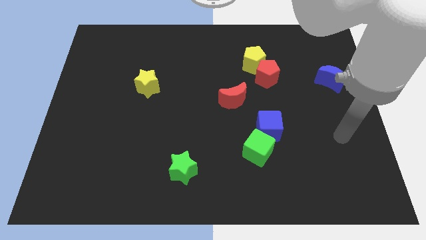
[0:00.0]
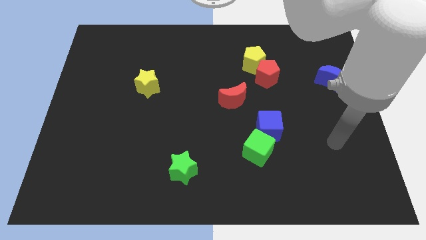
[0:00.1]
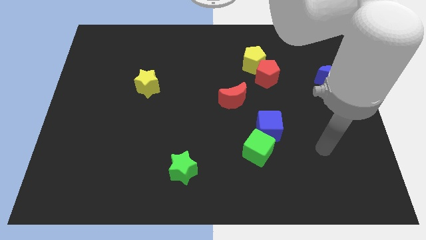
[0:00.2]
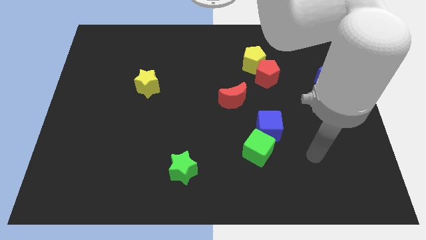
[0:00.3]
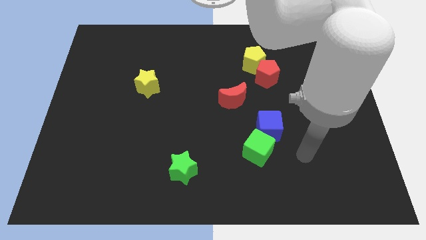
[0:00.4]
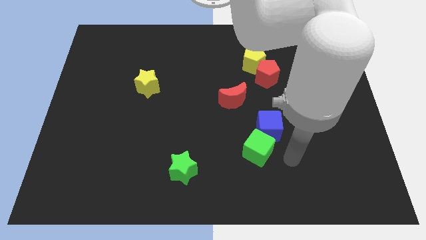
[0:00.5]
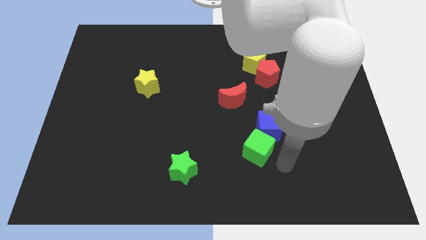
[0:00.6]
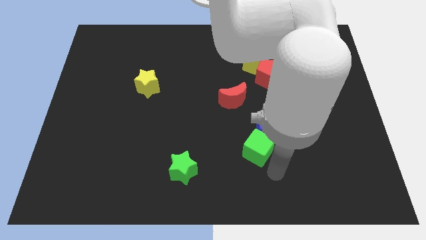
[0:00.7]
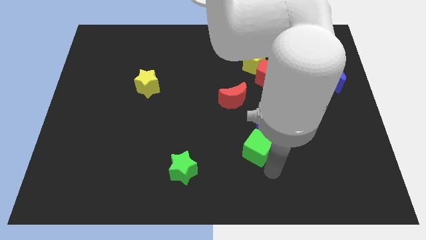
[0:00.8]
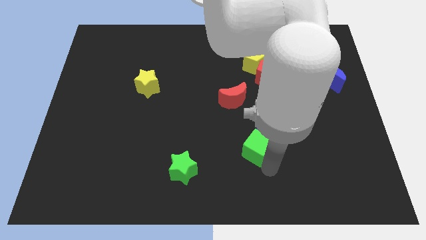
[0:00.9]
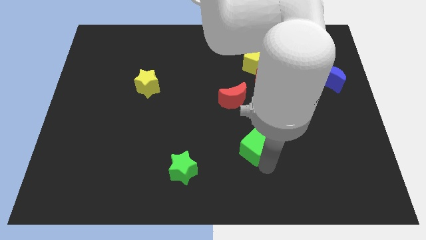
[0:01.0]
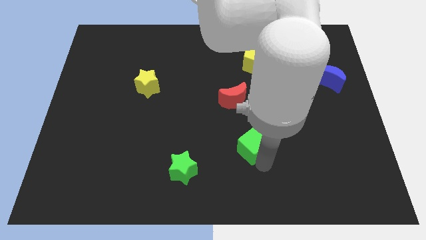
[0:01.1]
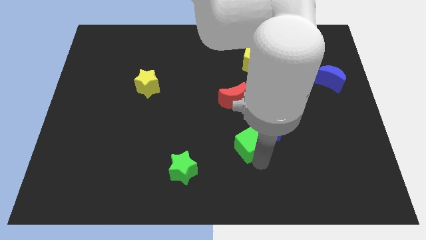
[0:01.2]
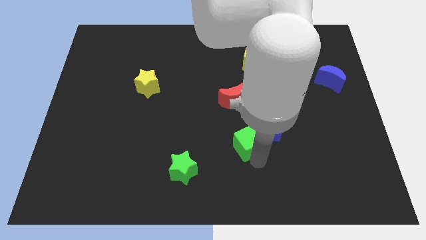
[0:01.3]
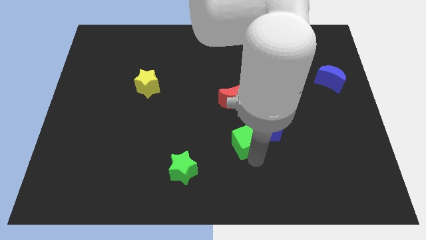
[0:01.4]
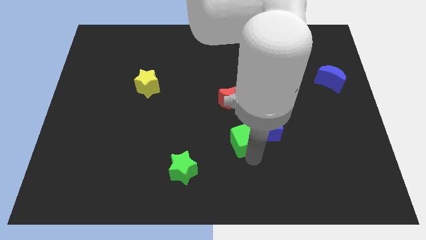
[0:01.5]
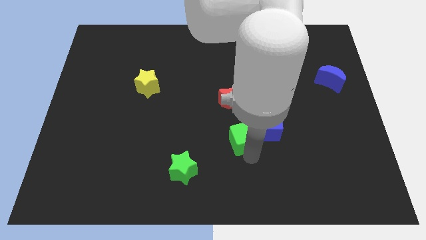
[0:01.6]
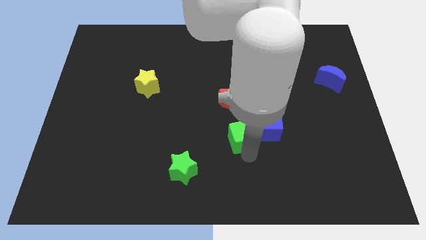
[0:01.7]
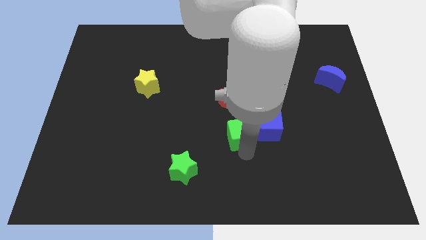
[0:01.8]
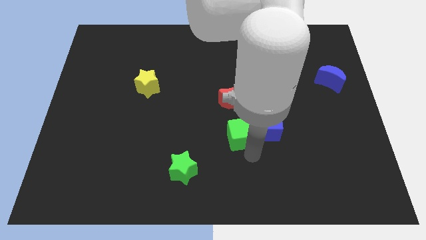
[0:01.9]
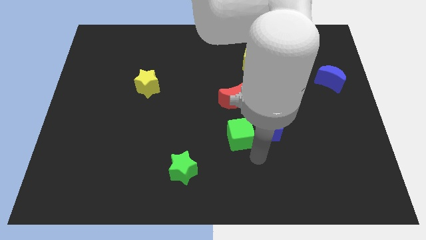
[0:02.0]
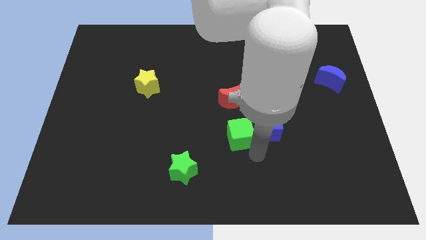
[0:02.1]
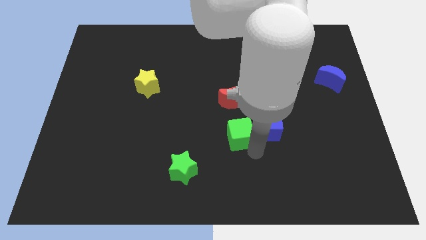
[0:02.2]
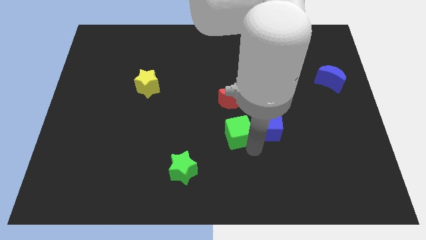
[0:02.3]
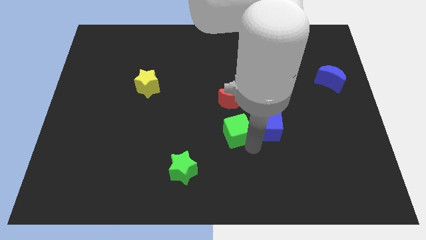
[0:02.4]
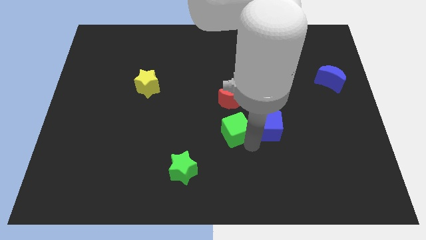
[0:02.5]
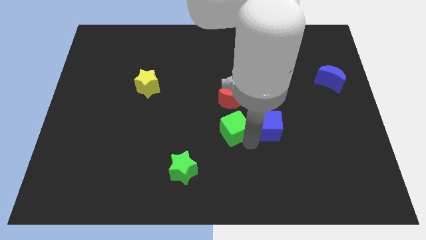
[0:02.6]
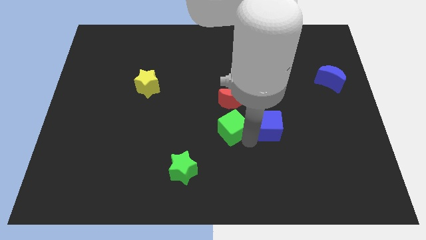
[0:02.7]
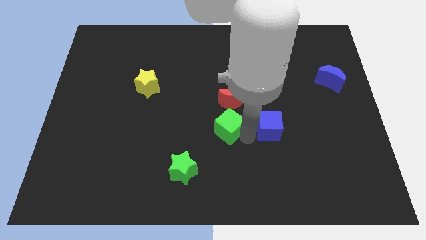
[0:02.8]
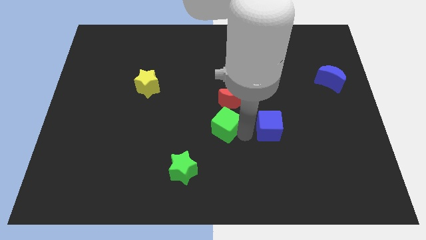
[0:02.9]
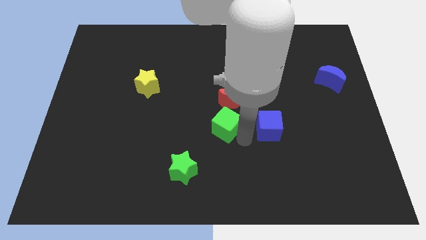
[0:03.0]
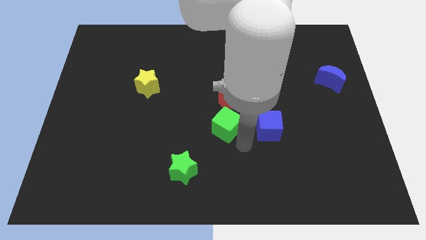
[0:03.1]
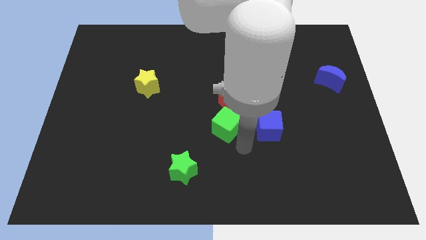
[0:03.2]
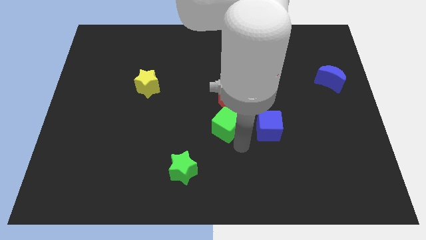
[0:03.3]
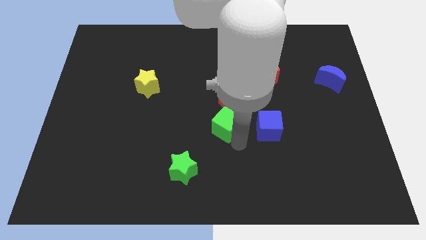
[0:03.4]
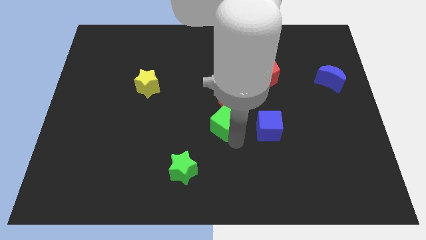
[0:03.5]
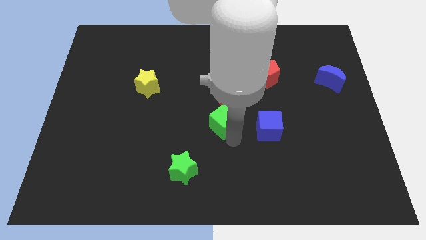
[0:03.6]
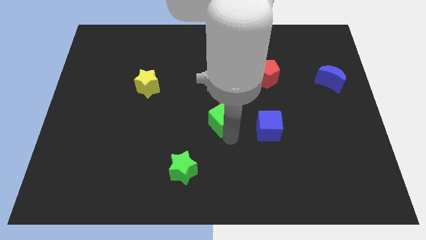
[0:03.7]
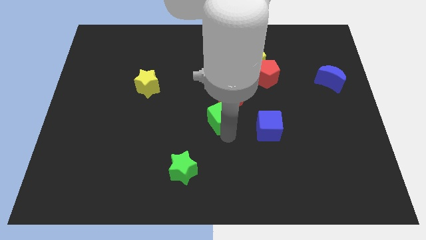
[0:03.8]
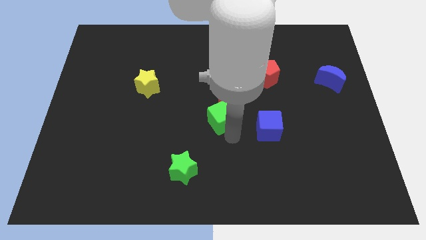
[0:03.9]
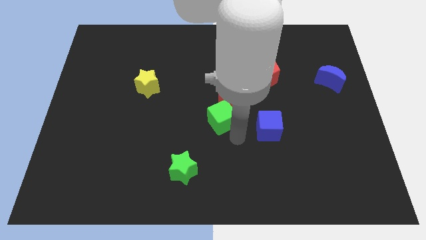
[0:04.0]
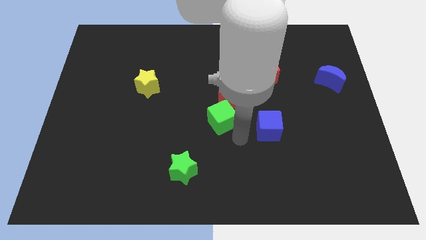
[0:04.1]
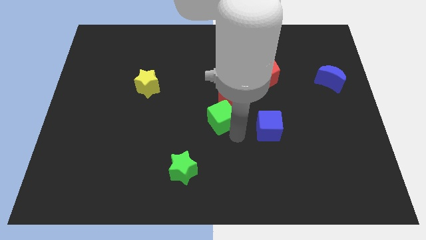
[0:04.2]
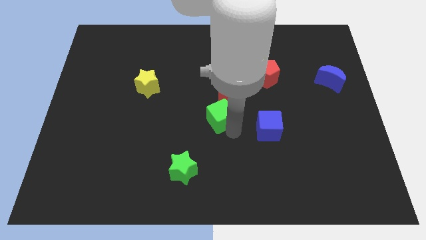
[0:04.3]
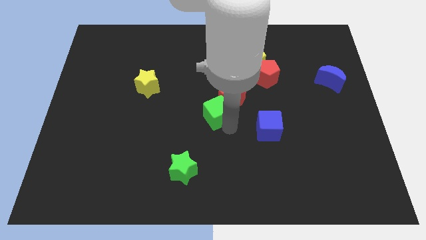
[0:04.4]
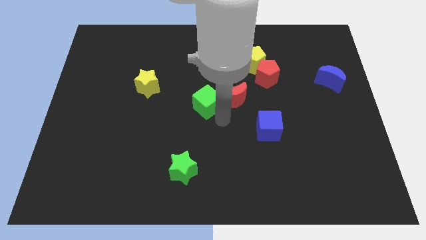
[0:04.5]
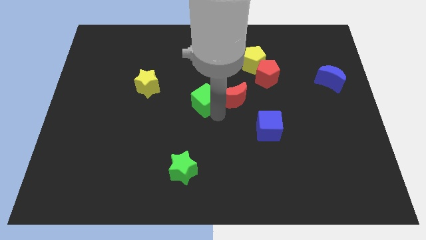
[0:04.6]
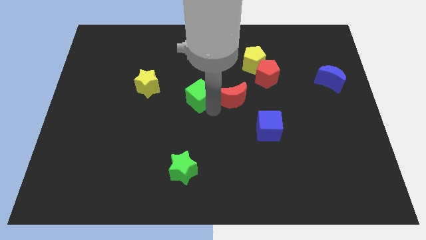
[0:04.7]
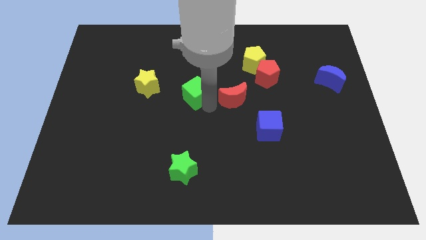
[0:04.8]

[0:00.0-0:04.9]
move the green cube up and to the left

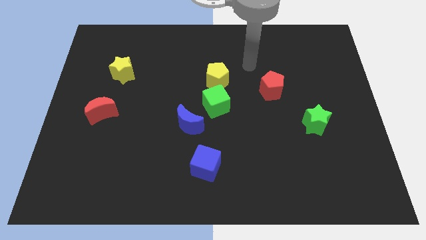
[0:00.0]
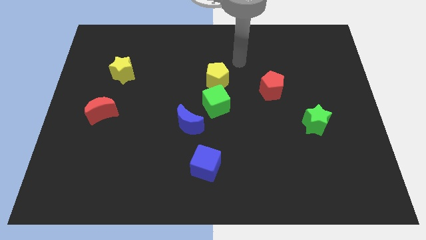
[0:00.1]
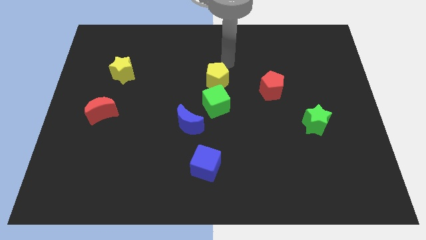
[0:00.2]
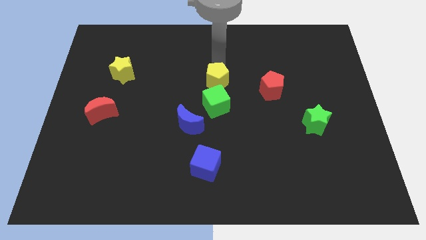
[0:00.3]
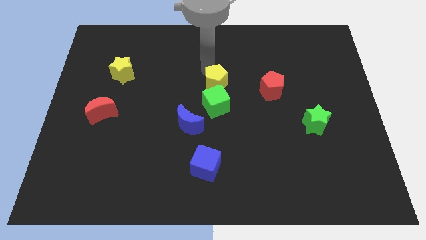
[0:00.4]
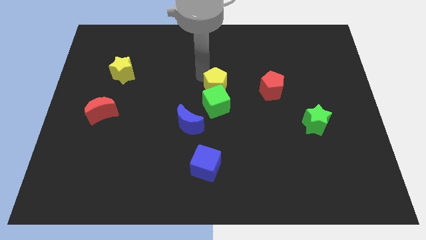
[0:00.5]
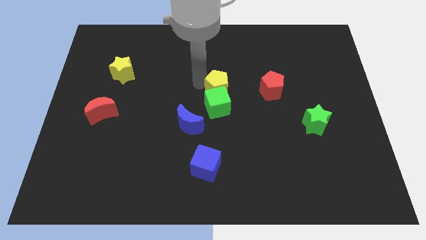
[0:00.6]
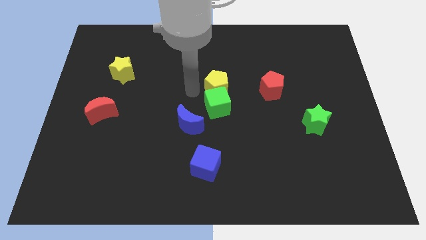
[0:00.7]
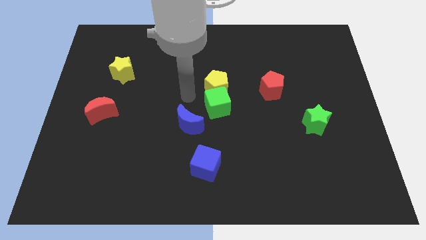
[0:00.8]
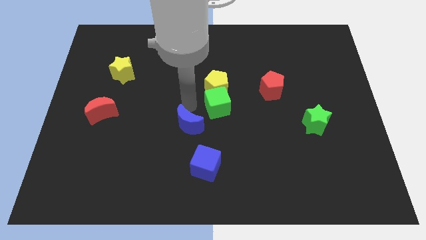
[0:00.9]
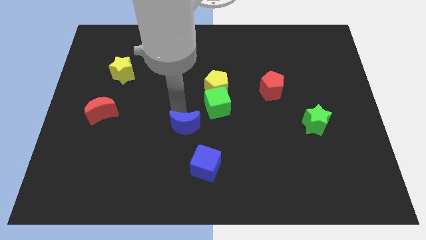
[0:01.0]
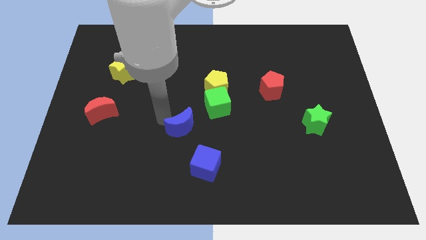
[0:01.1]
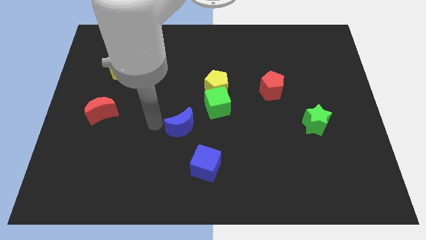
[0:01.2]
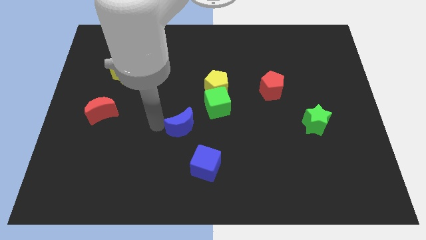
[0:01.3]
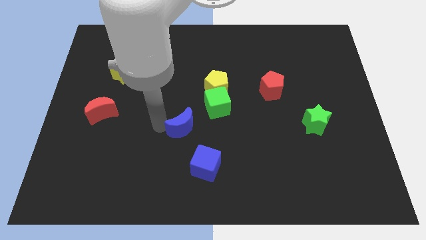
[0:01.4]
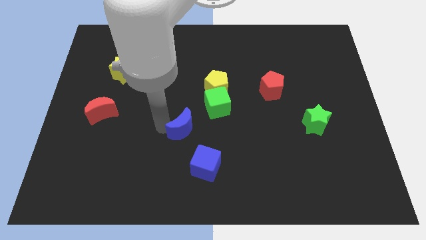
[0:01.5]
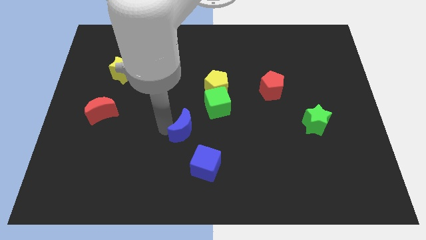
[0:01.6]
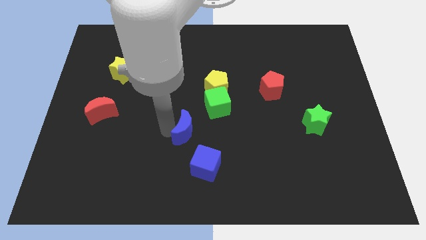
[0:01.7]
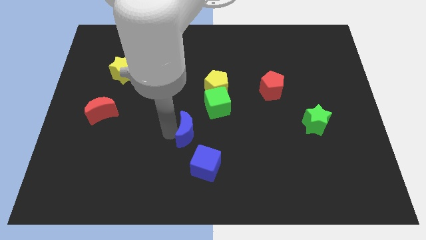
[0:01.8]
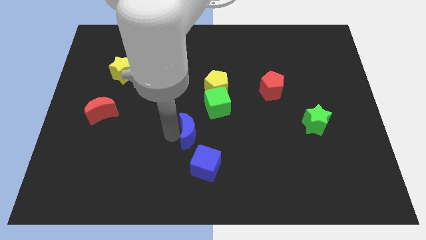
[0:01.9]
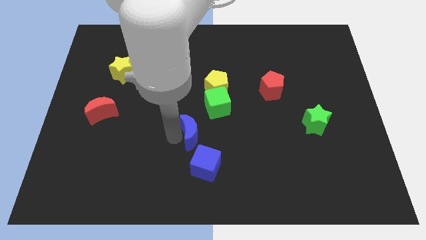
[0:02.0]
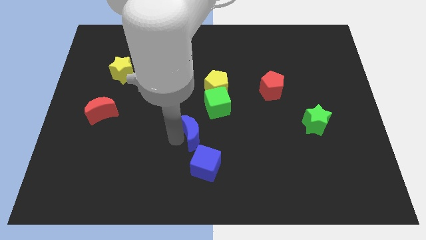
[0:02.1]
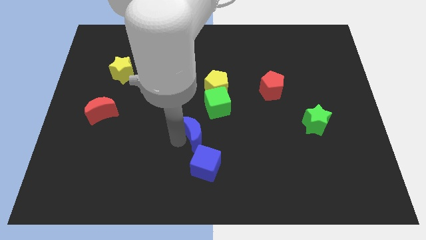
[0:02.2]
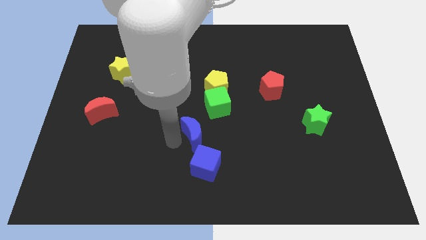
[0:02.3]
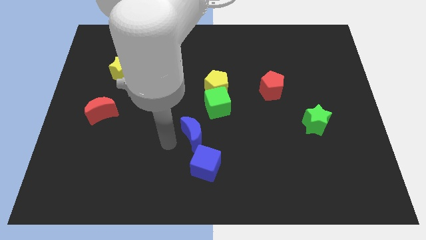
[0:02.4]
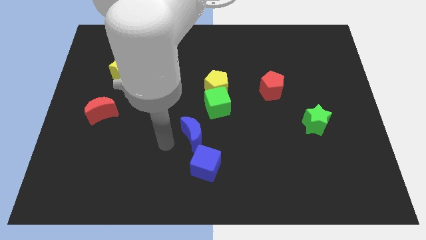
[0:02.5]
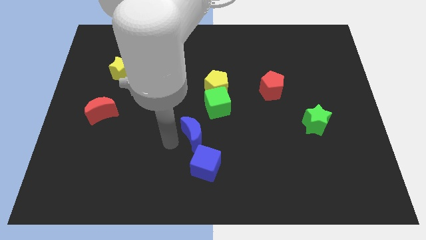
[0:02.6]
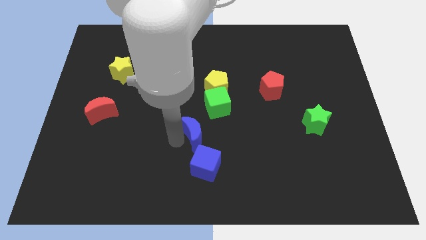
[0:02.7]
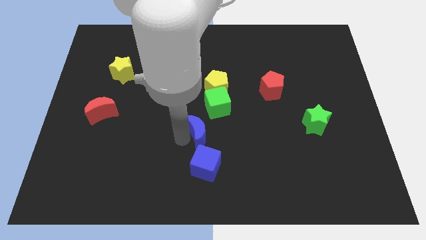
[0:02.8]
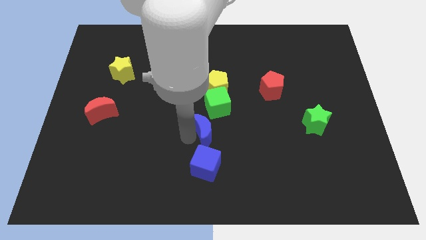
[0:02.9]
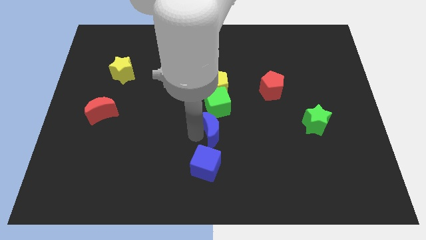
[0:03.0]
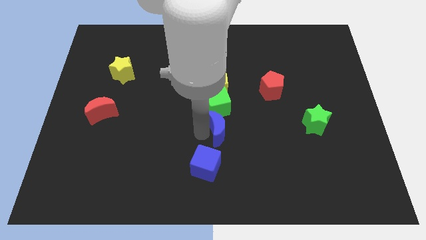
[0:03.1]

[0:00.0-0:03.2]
slightly slide the blue moon right
